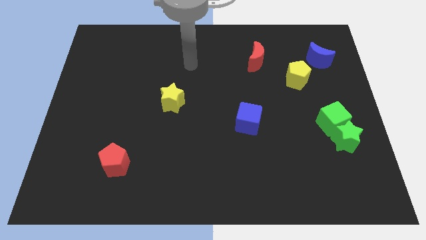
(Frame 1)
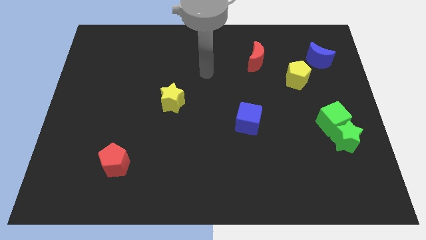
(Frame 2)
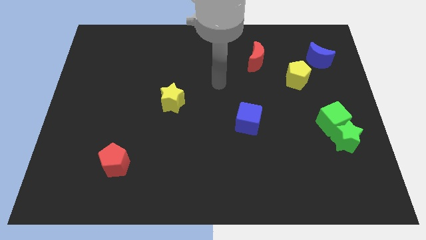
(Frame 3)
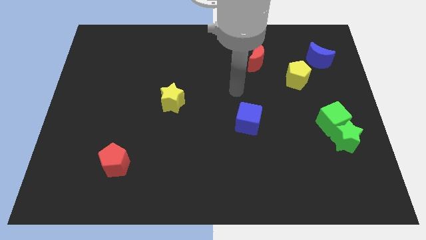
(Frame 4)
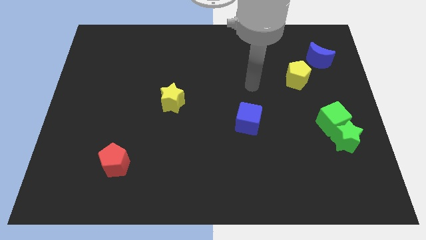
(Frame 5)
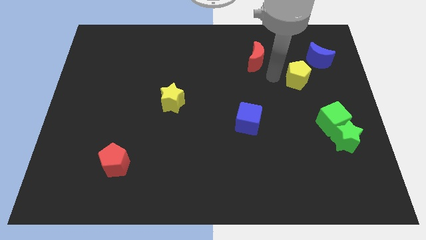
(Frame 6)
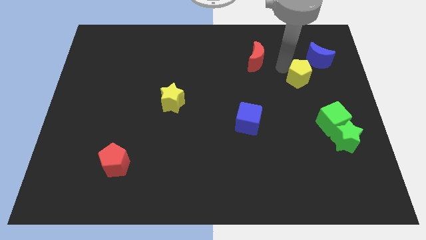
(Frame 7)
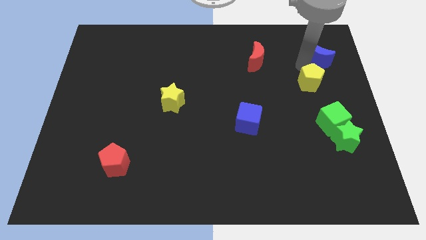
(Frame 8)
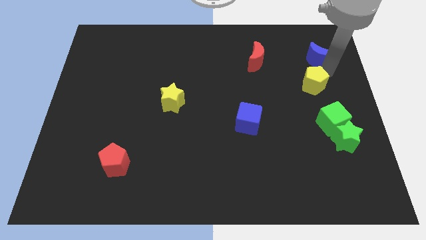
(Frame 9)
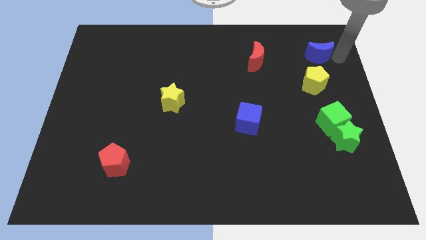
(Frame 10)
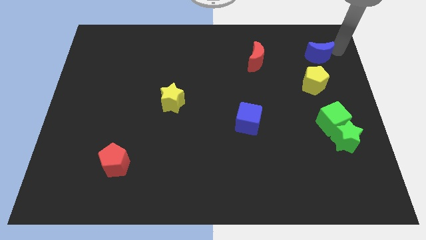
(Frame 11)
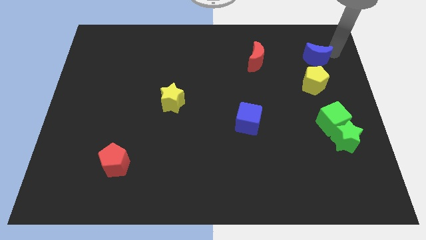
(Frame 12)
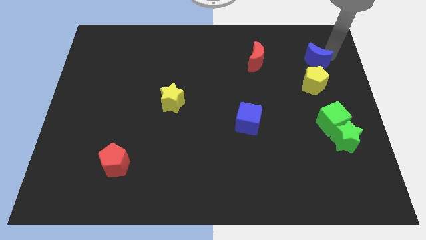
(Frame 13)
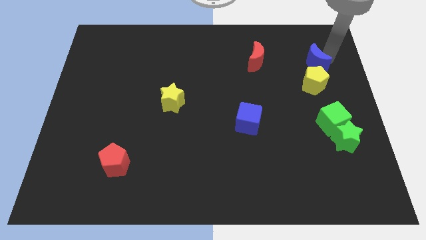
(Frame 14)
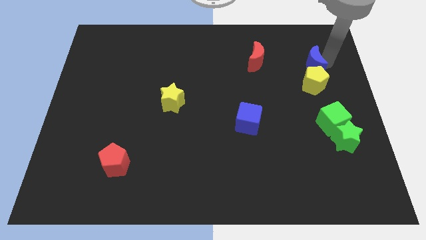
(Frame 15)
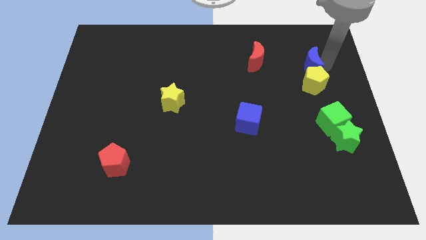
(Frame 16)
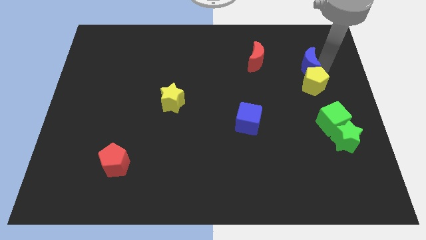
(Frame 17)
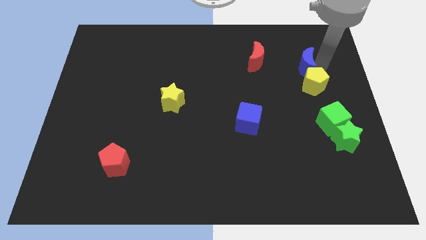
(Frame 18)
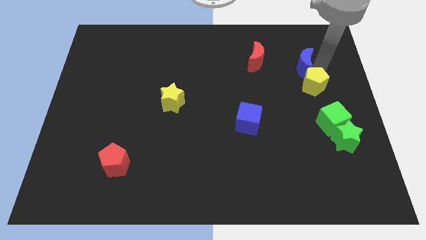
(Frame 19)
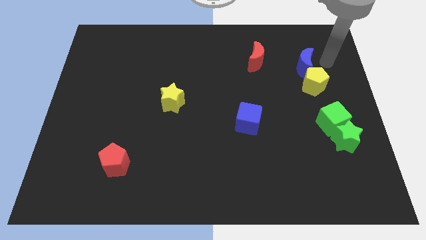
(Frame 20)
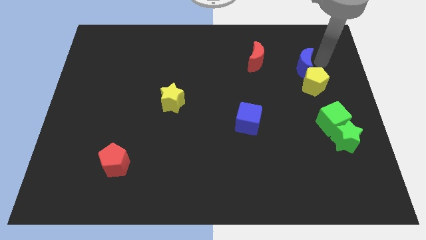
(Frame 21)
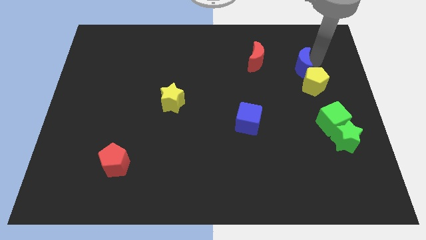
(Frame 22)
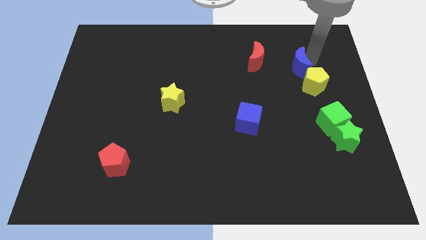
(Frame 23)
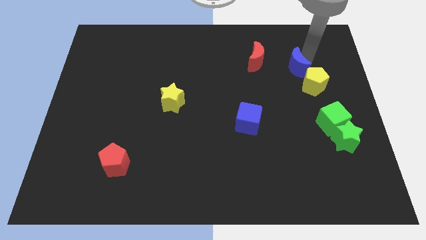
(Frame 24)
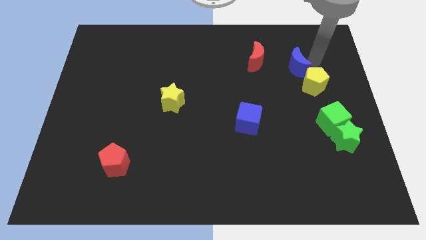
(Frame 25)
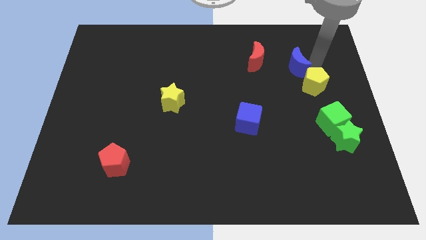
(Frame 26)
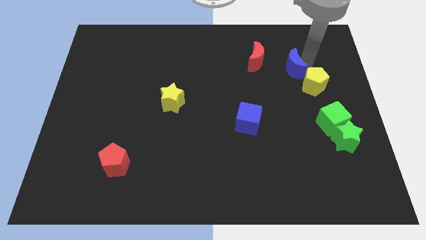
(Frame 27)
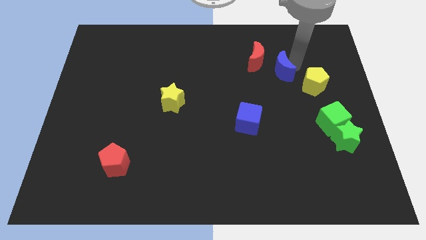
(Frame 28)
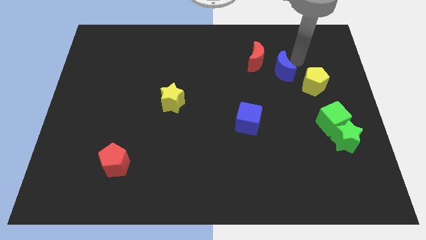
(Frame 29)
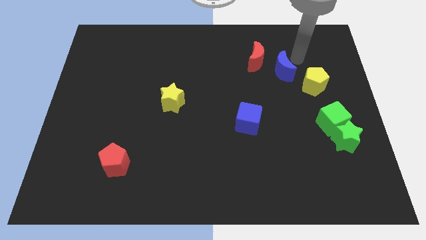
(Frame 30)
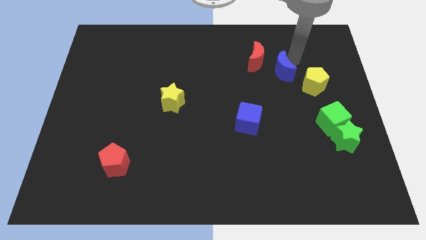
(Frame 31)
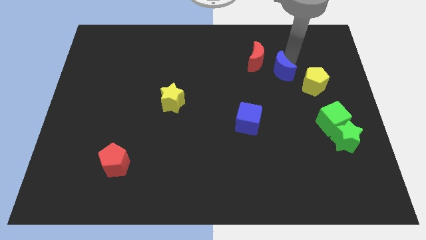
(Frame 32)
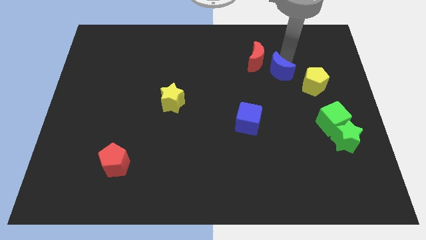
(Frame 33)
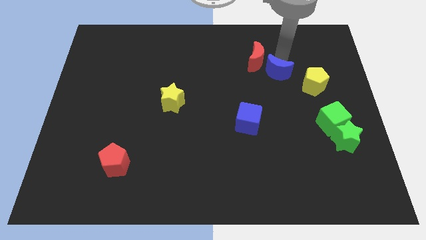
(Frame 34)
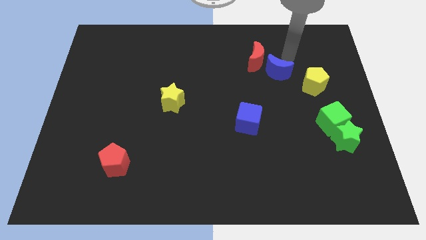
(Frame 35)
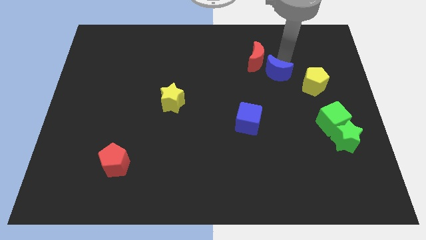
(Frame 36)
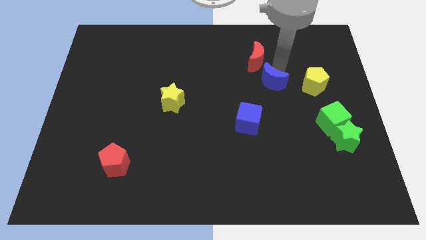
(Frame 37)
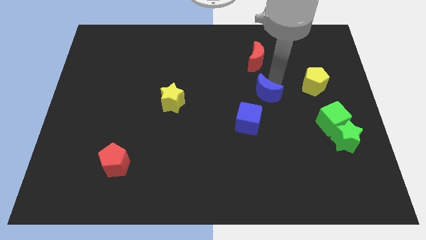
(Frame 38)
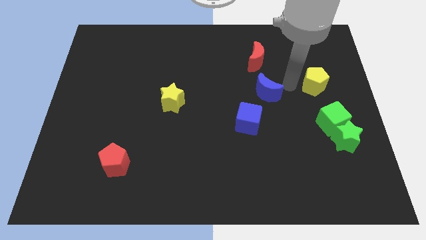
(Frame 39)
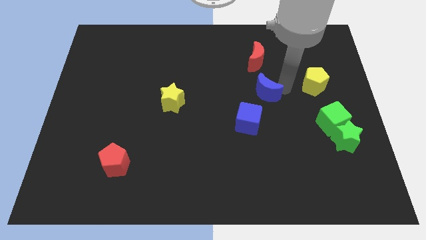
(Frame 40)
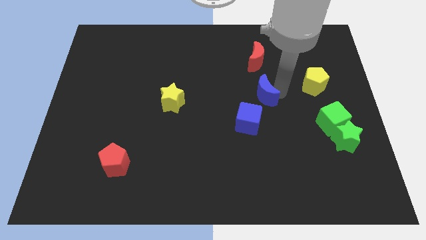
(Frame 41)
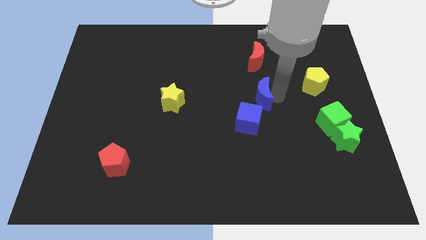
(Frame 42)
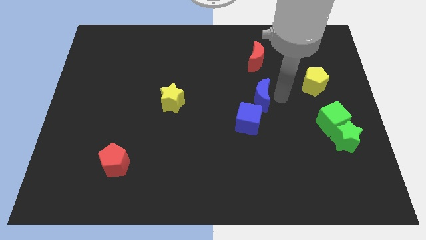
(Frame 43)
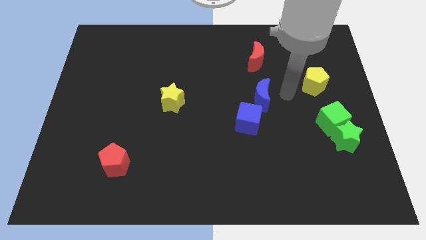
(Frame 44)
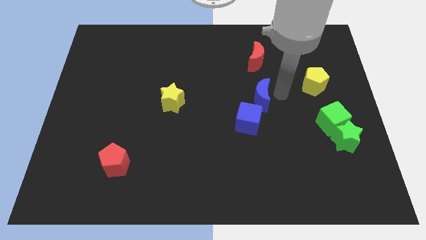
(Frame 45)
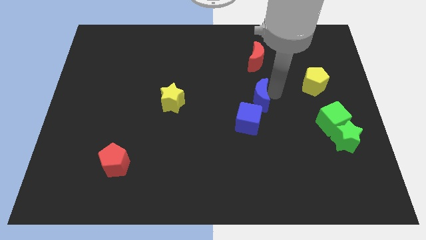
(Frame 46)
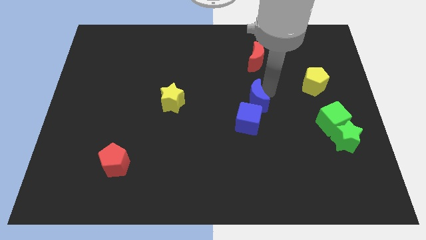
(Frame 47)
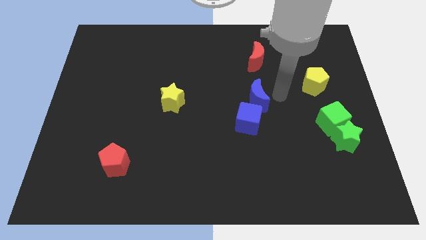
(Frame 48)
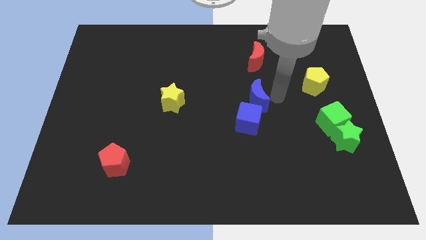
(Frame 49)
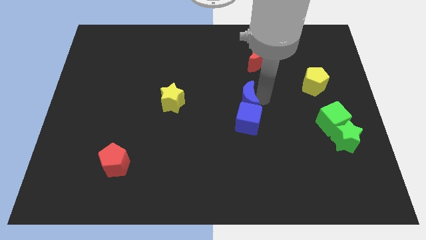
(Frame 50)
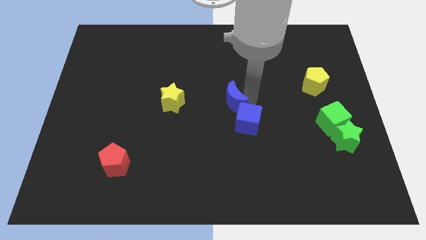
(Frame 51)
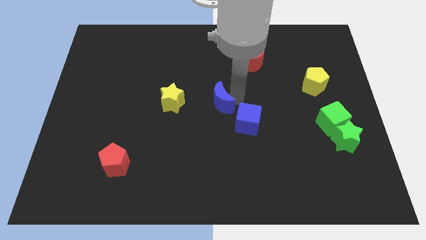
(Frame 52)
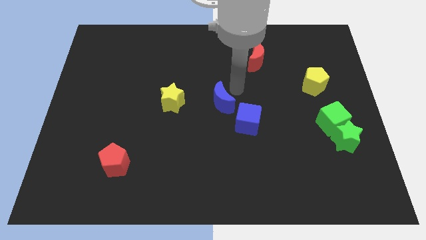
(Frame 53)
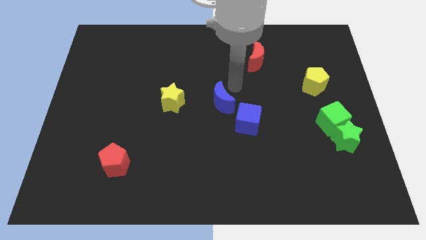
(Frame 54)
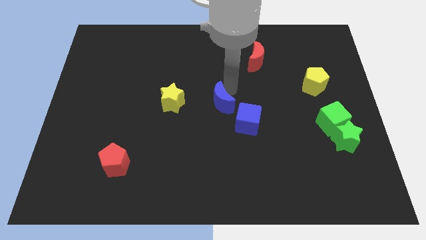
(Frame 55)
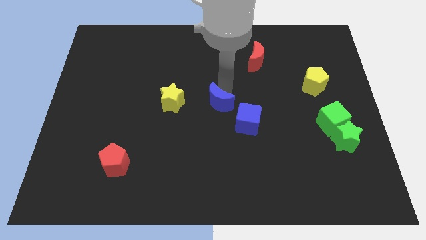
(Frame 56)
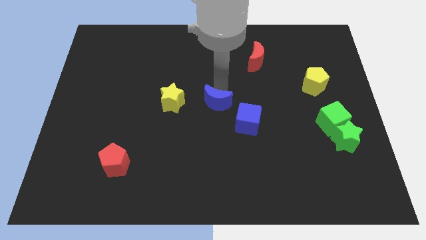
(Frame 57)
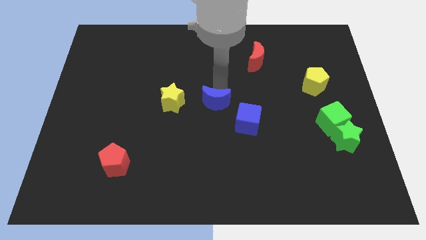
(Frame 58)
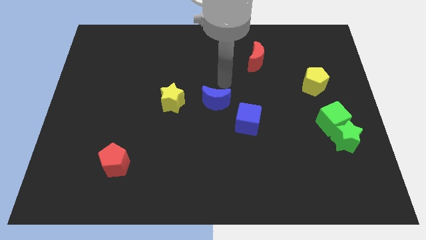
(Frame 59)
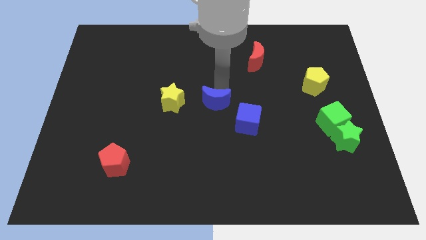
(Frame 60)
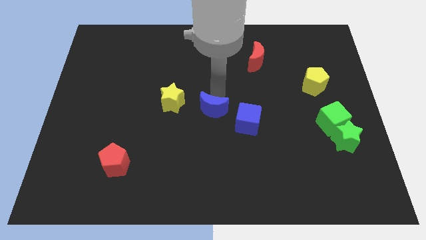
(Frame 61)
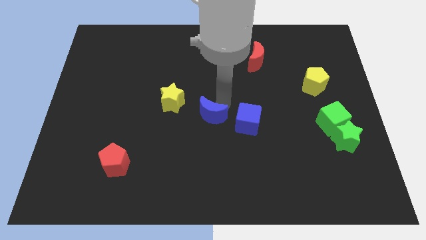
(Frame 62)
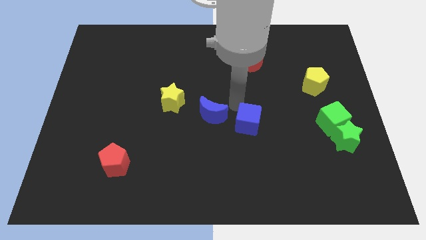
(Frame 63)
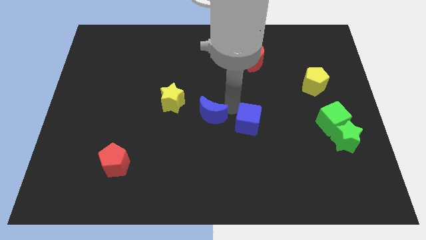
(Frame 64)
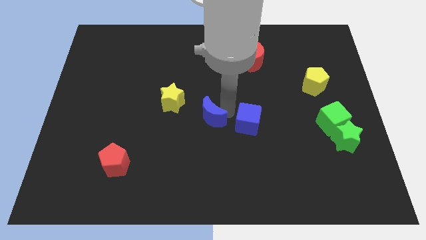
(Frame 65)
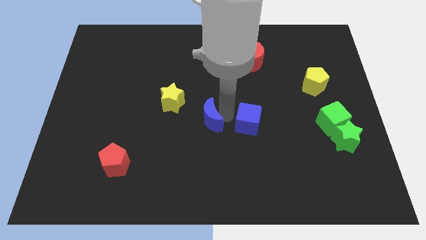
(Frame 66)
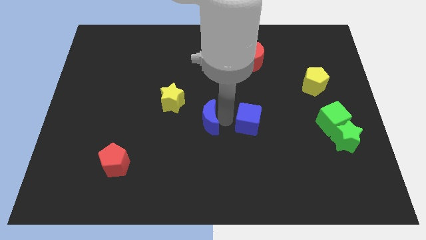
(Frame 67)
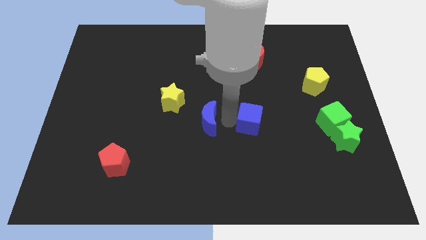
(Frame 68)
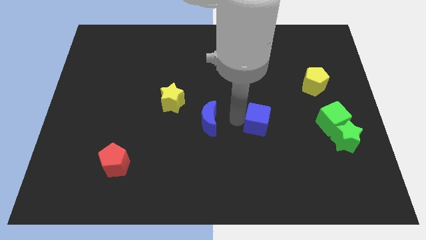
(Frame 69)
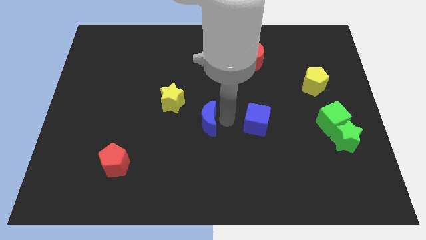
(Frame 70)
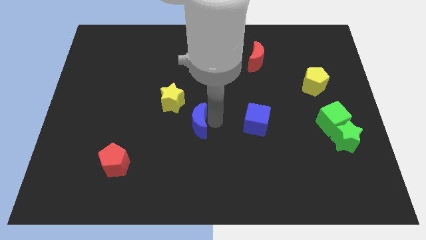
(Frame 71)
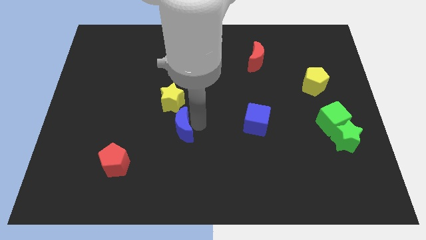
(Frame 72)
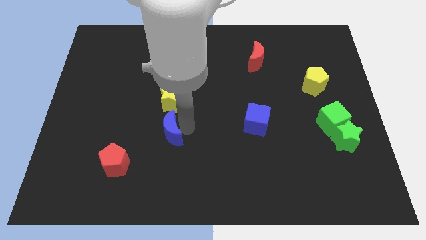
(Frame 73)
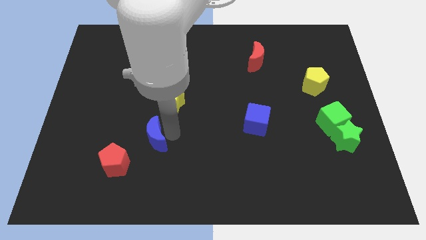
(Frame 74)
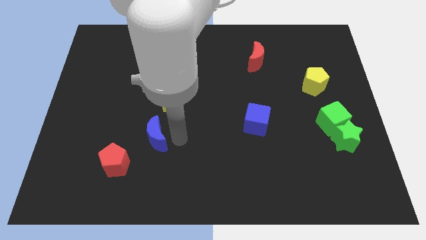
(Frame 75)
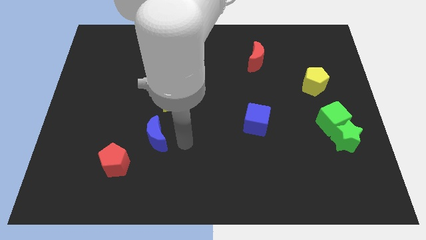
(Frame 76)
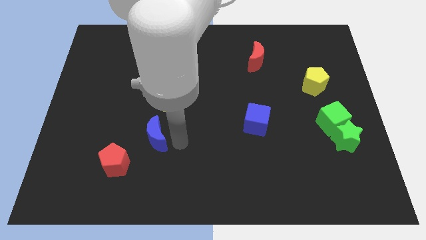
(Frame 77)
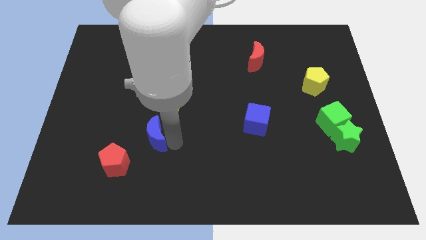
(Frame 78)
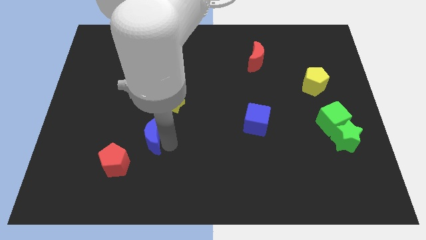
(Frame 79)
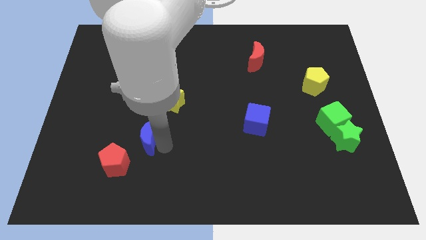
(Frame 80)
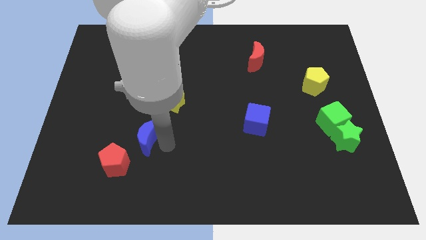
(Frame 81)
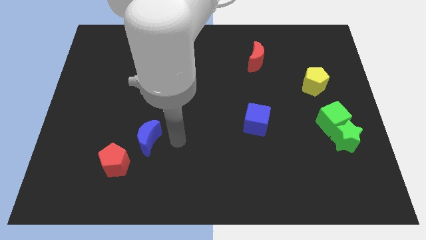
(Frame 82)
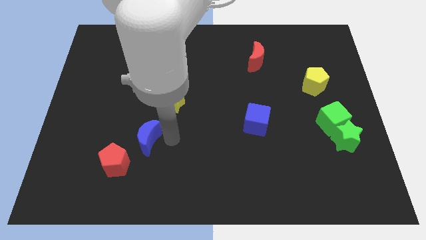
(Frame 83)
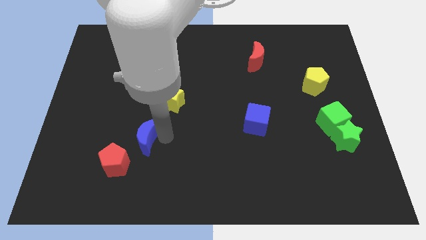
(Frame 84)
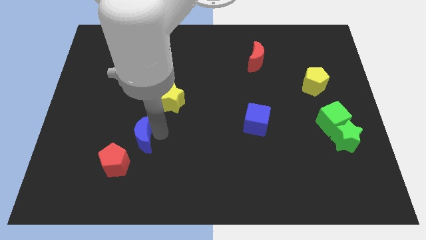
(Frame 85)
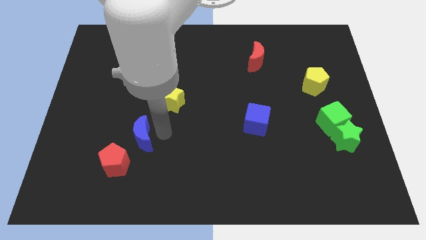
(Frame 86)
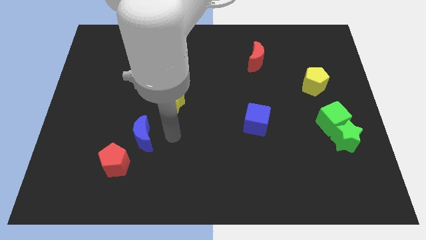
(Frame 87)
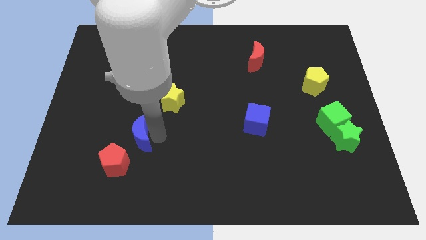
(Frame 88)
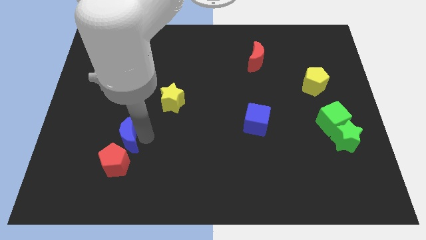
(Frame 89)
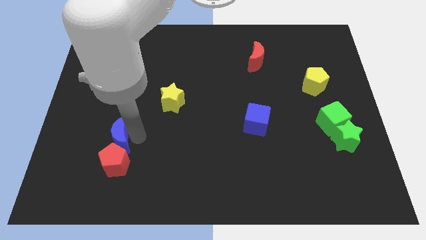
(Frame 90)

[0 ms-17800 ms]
push the blue moon to the top left side of the red pentagon
